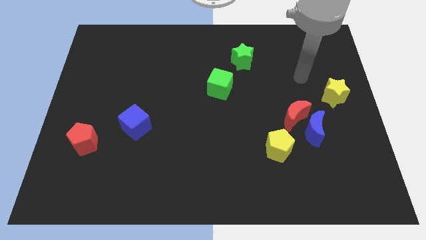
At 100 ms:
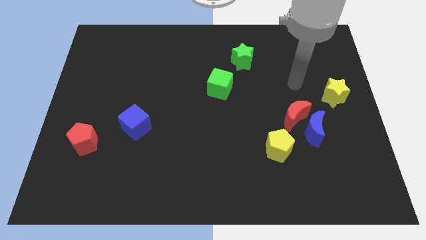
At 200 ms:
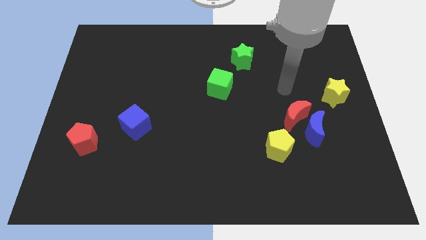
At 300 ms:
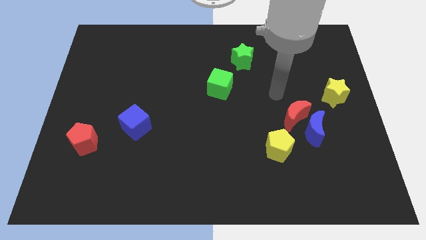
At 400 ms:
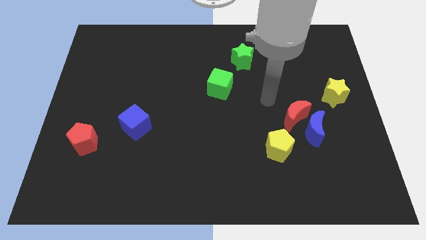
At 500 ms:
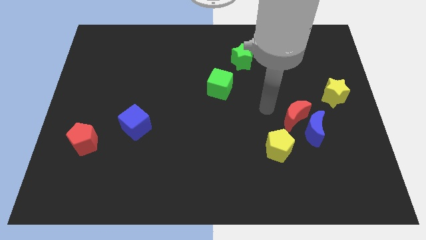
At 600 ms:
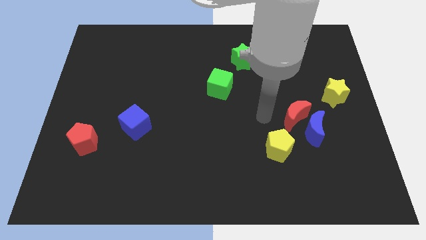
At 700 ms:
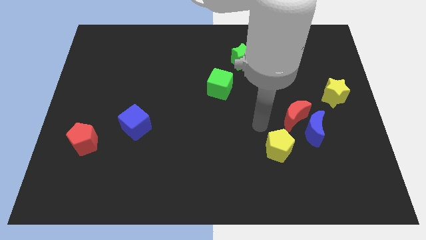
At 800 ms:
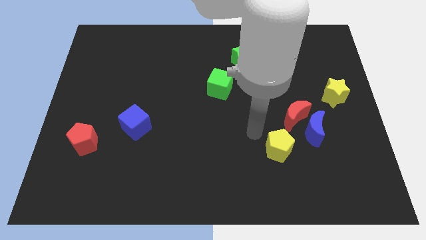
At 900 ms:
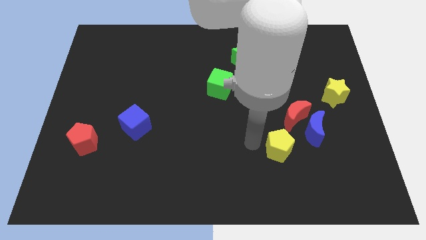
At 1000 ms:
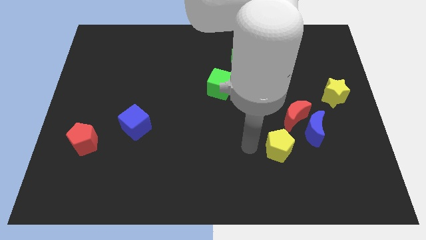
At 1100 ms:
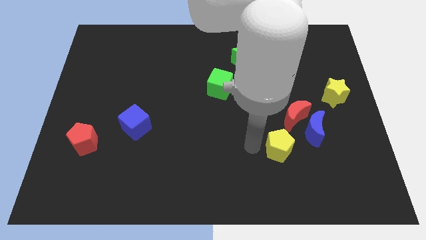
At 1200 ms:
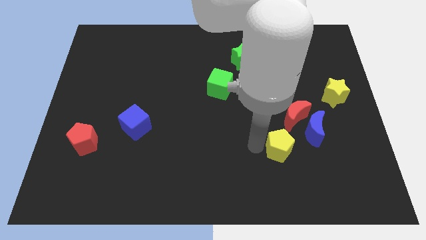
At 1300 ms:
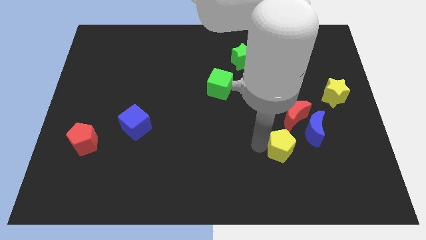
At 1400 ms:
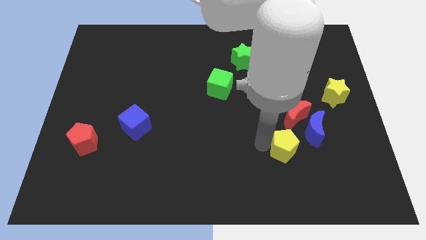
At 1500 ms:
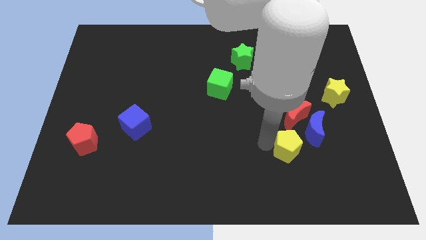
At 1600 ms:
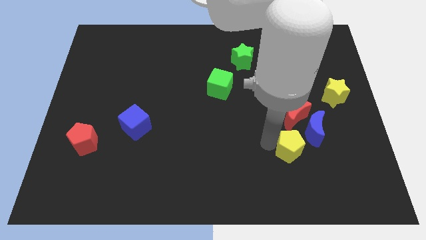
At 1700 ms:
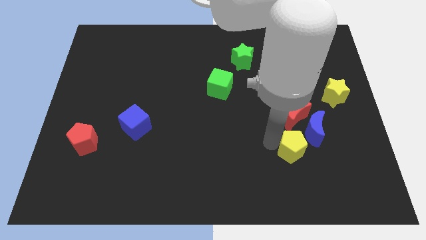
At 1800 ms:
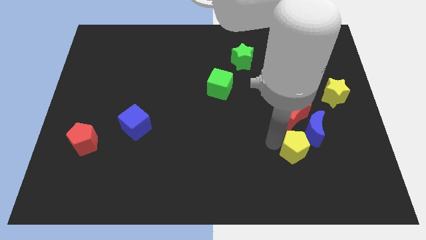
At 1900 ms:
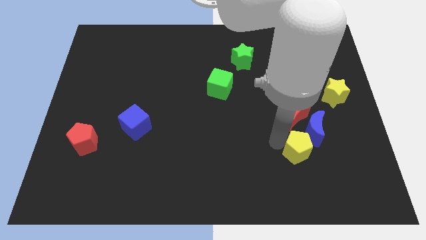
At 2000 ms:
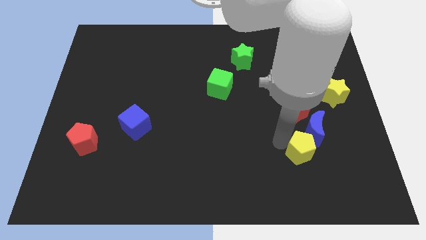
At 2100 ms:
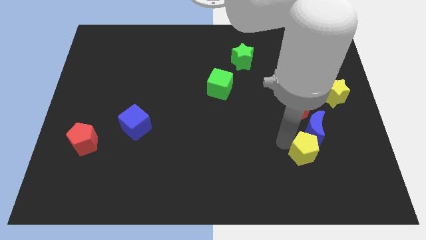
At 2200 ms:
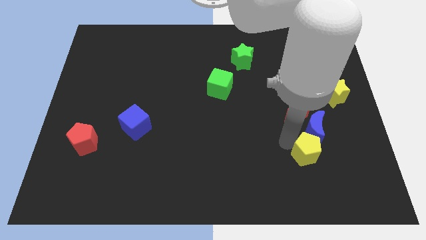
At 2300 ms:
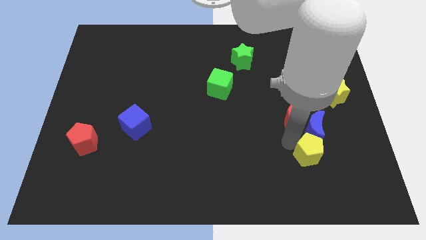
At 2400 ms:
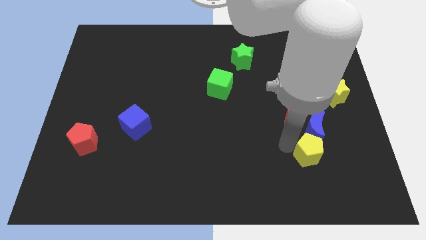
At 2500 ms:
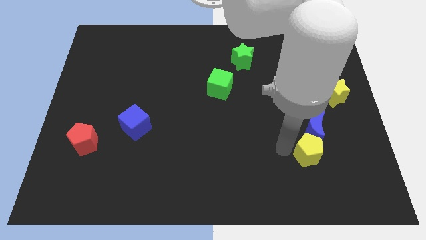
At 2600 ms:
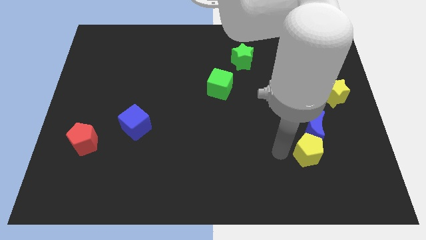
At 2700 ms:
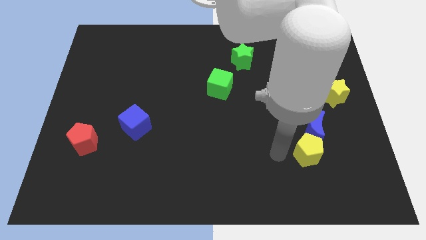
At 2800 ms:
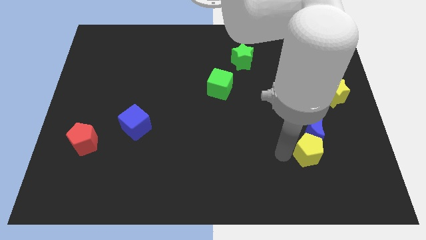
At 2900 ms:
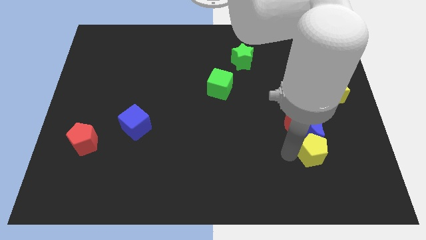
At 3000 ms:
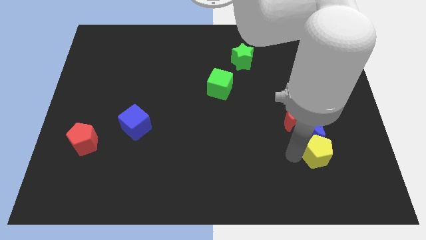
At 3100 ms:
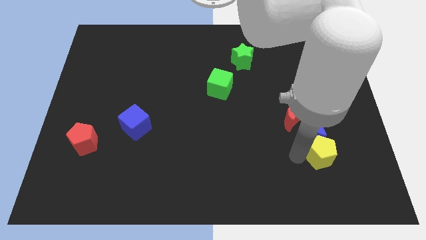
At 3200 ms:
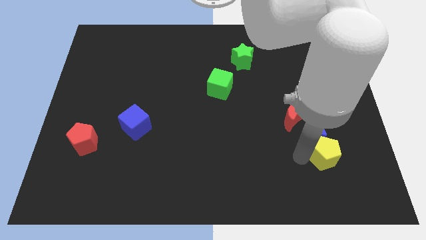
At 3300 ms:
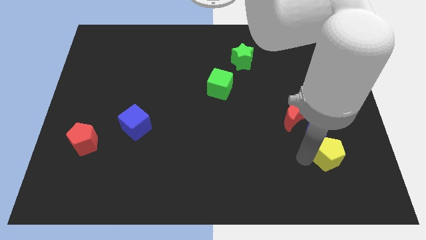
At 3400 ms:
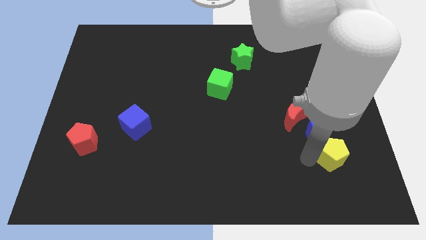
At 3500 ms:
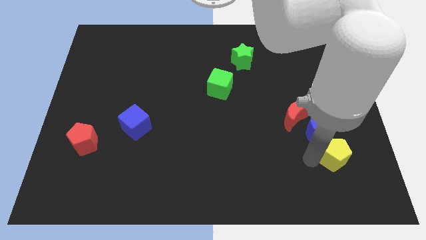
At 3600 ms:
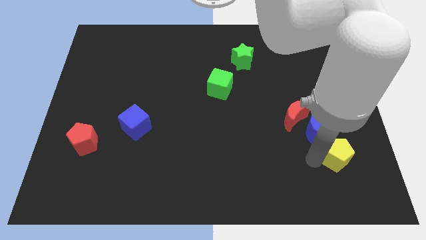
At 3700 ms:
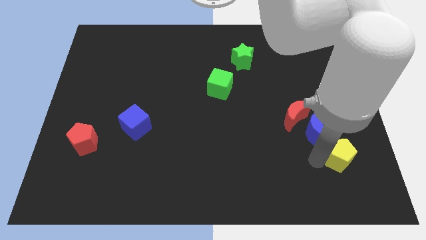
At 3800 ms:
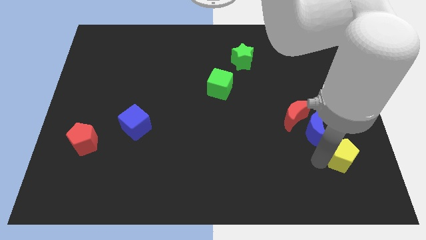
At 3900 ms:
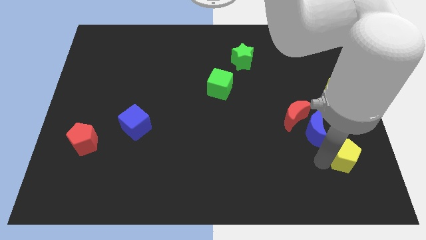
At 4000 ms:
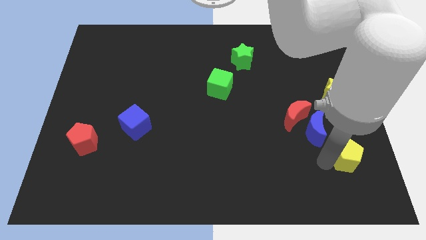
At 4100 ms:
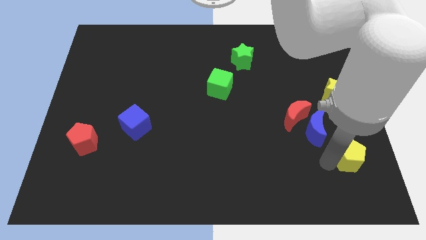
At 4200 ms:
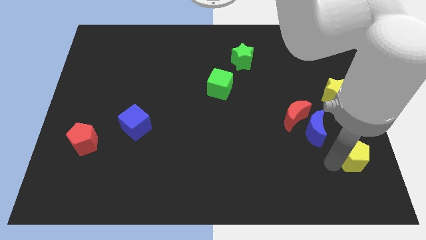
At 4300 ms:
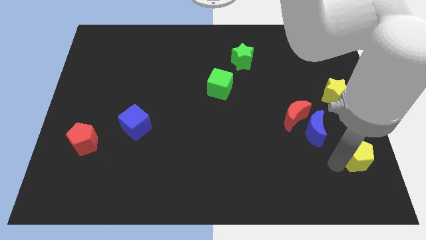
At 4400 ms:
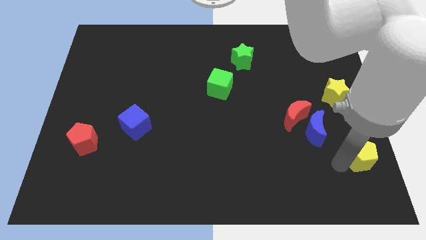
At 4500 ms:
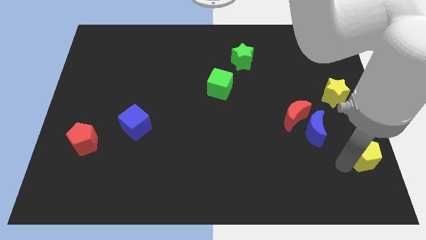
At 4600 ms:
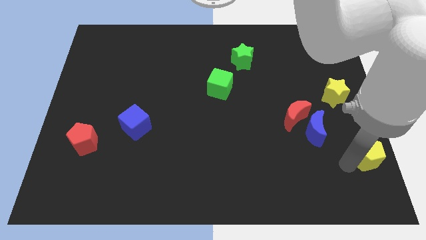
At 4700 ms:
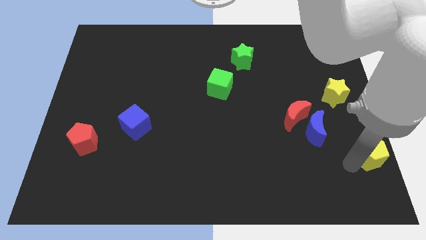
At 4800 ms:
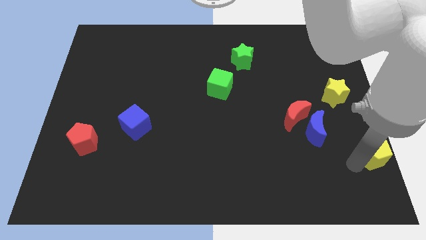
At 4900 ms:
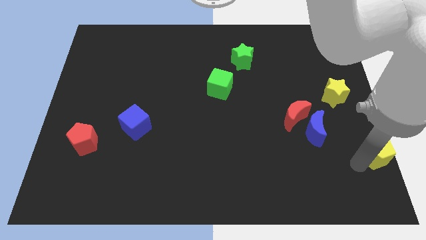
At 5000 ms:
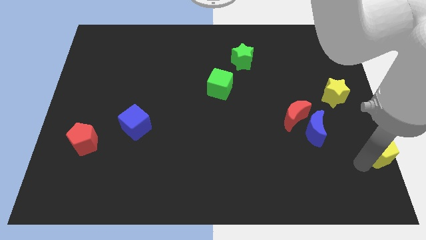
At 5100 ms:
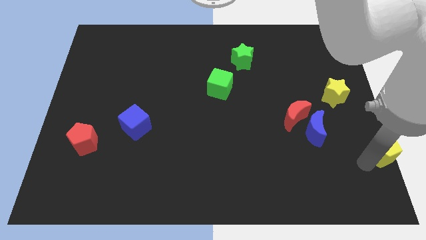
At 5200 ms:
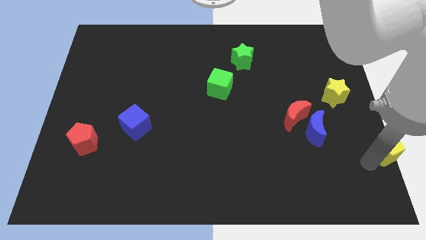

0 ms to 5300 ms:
put the yellow pentagon to the right side

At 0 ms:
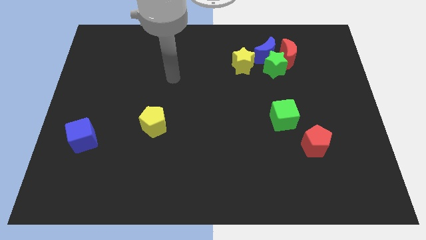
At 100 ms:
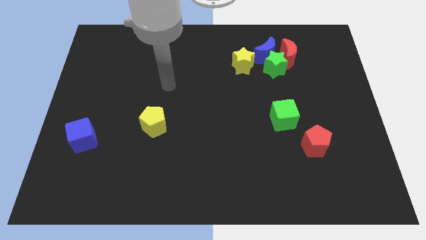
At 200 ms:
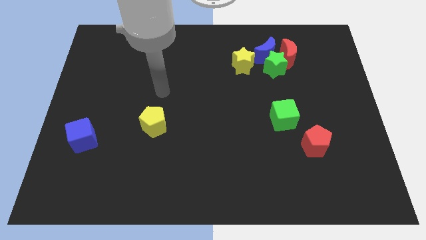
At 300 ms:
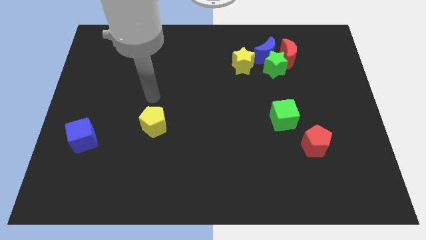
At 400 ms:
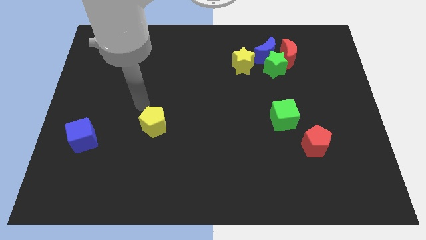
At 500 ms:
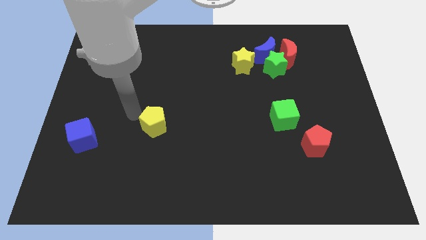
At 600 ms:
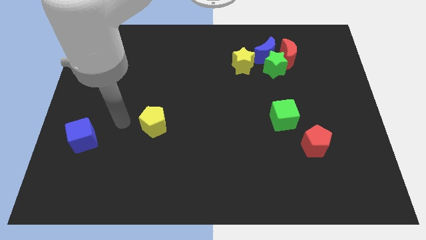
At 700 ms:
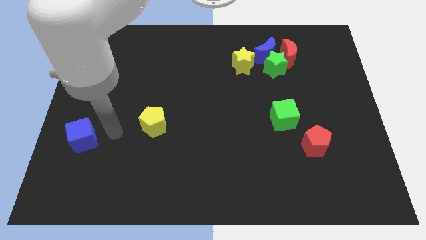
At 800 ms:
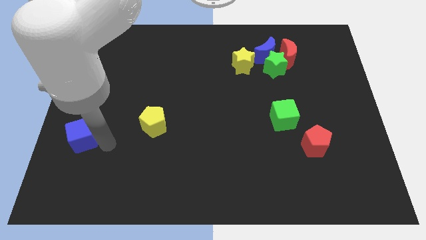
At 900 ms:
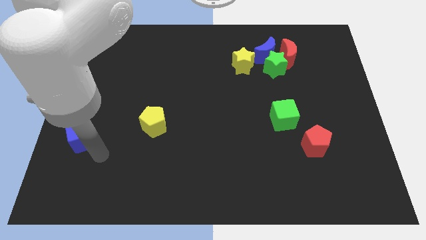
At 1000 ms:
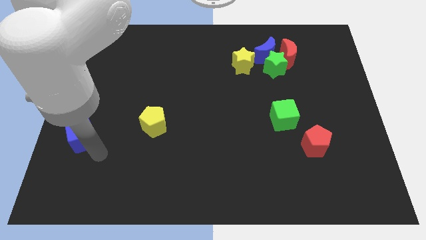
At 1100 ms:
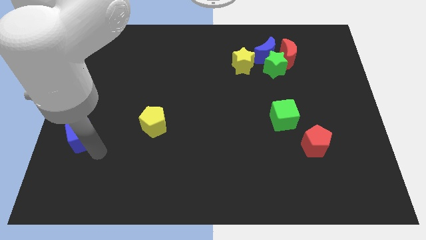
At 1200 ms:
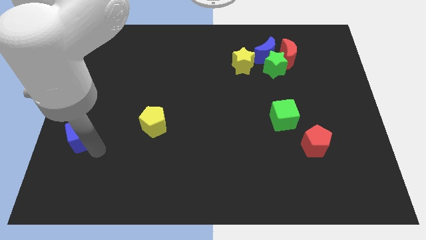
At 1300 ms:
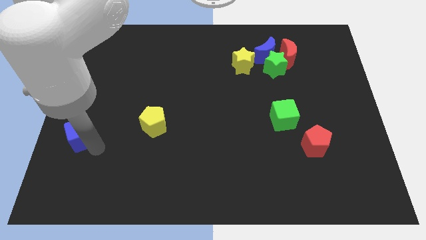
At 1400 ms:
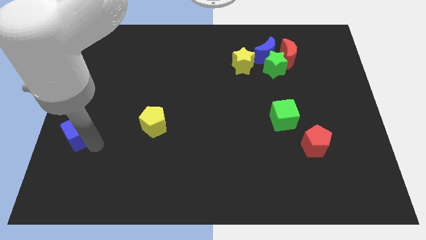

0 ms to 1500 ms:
put the blue cube to the center left
